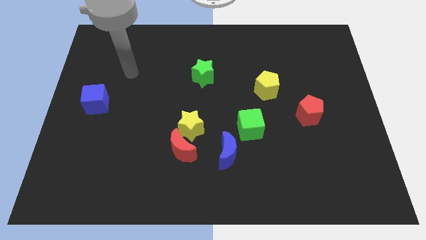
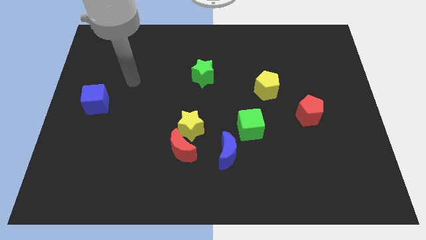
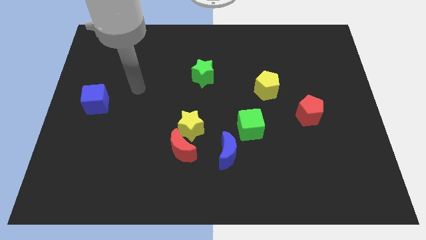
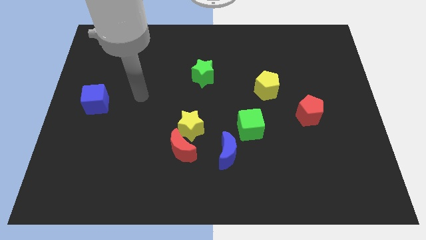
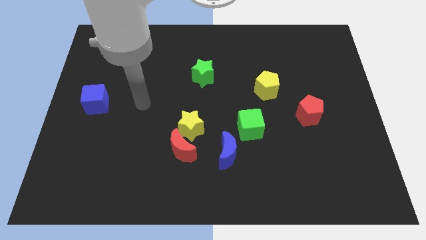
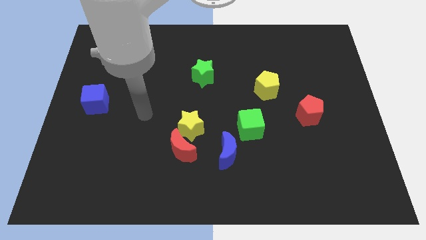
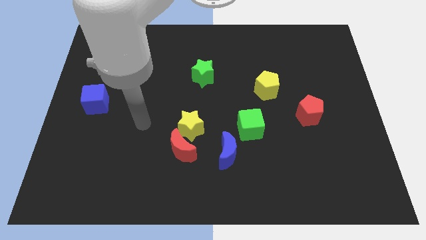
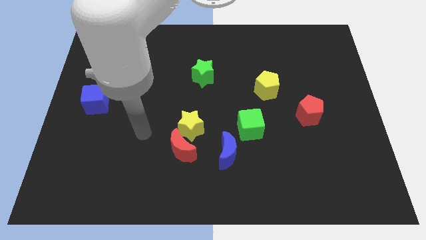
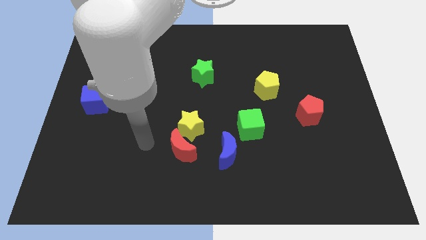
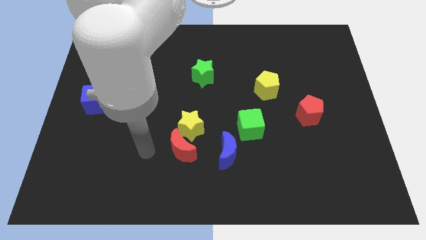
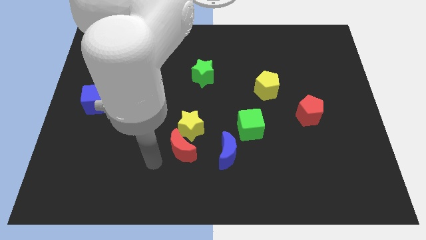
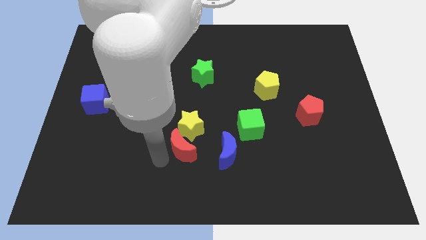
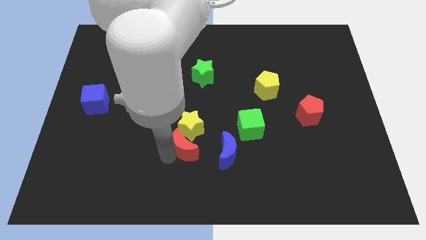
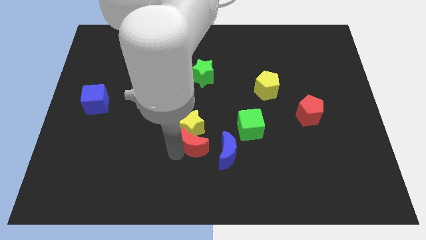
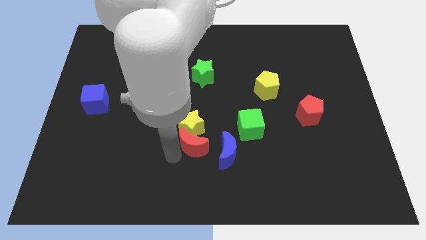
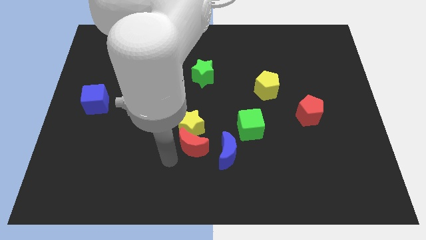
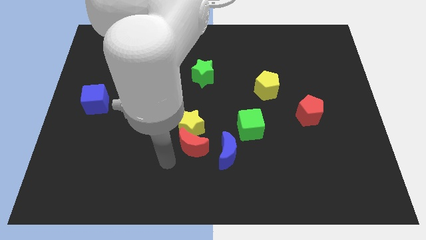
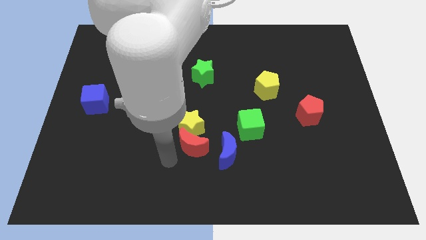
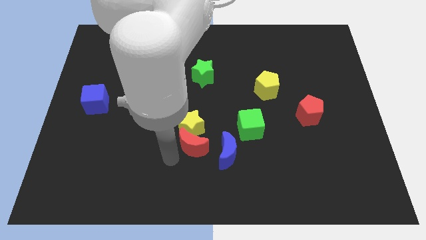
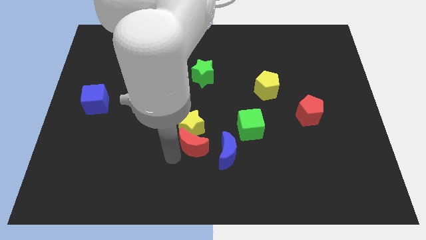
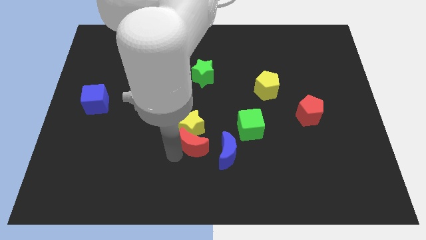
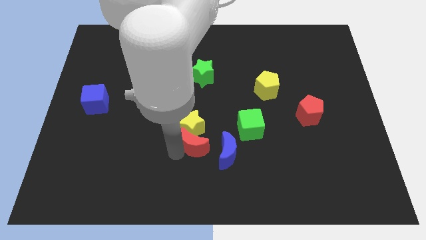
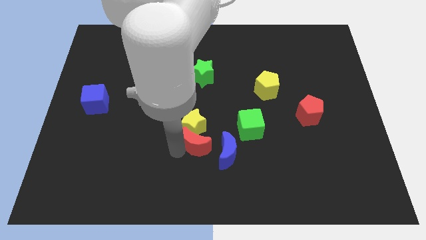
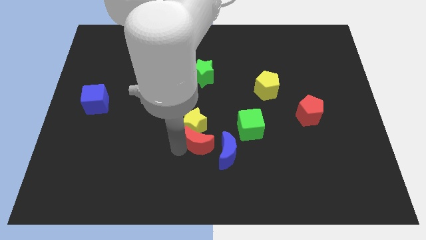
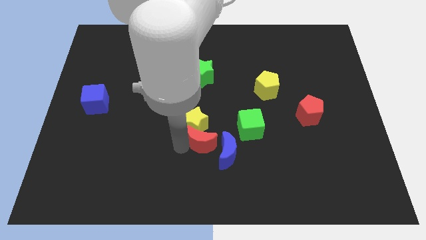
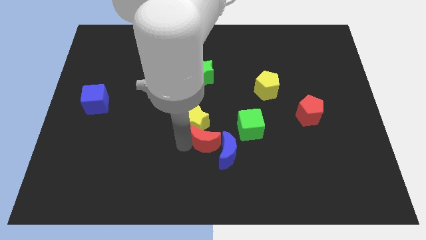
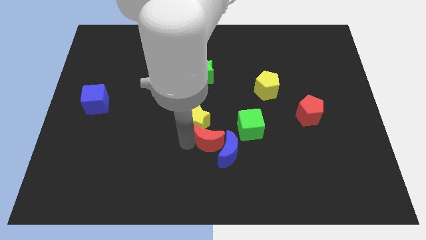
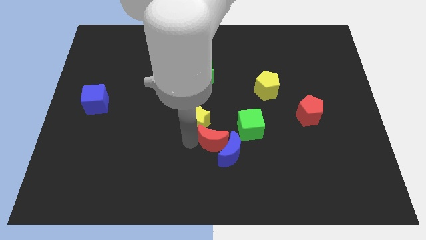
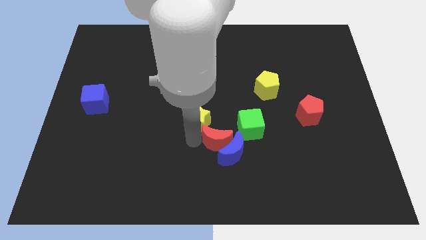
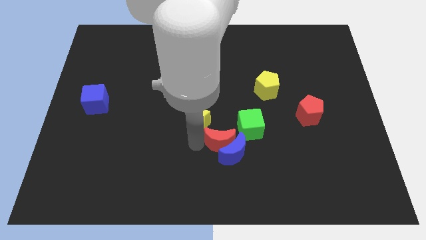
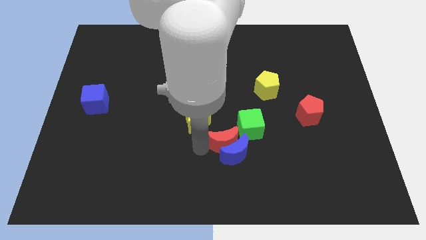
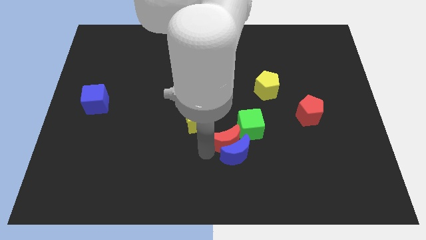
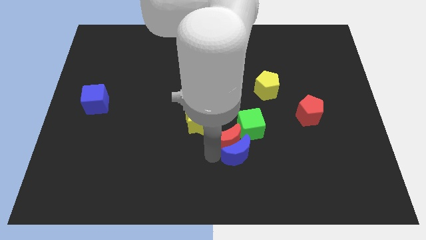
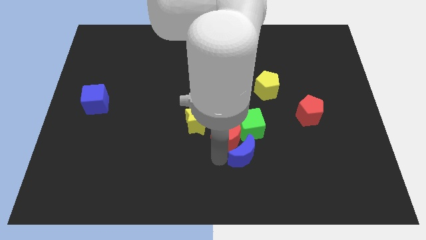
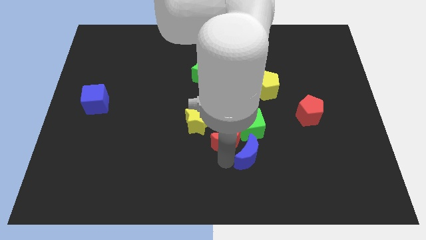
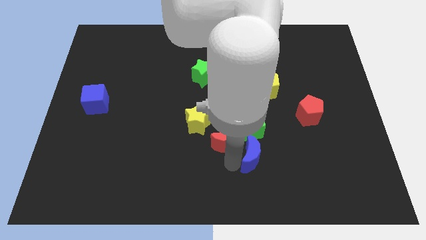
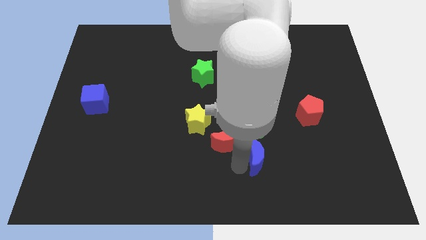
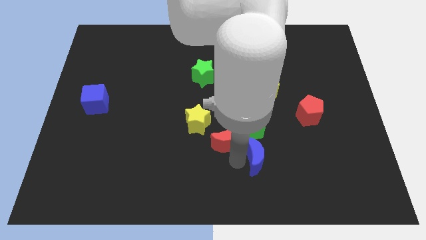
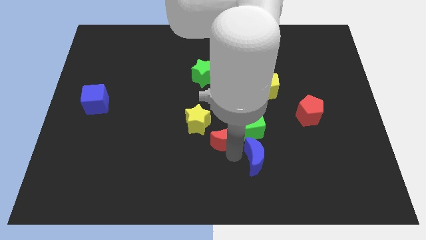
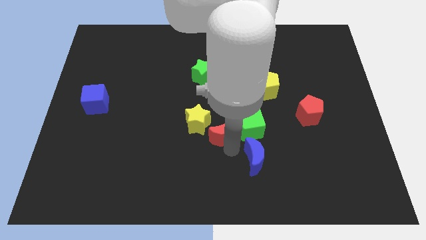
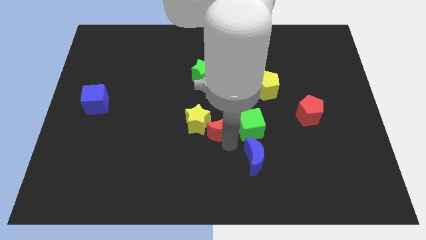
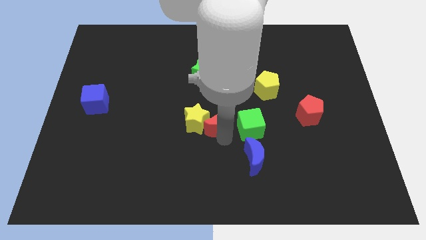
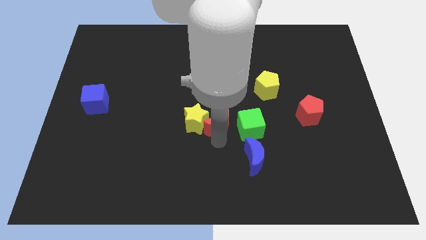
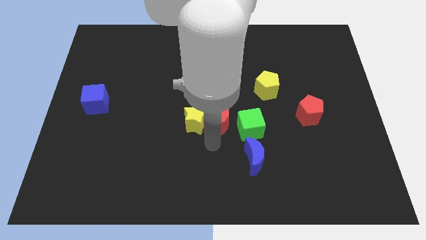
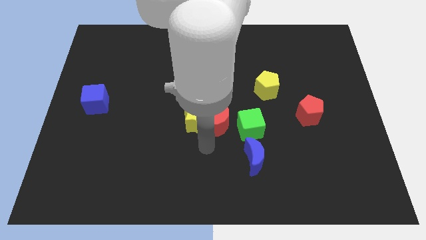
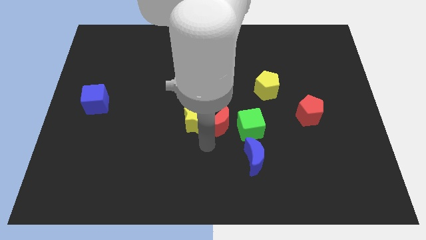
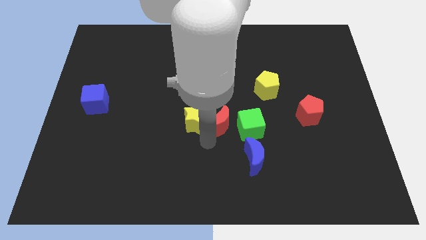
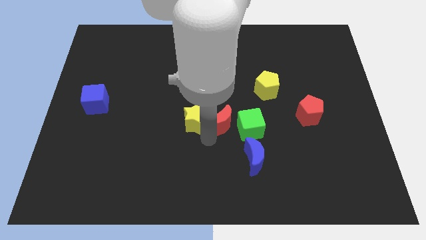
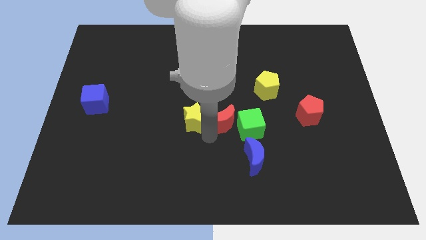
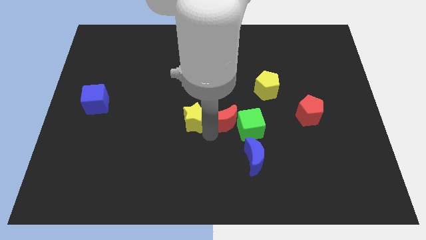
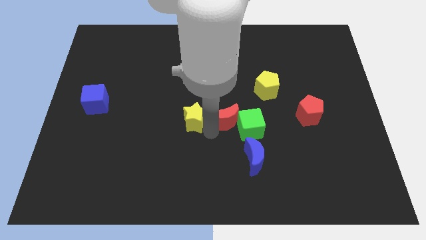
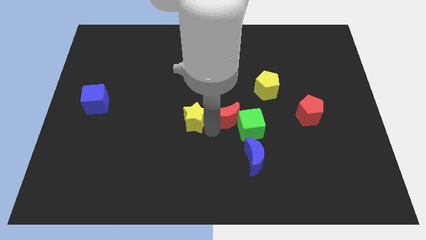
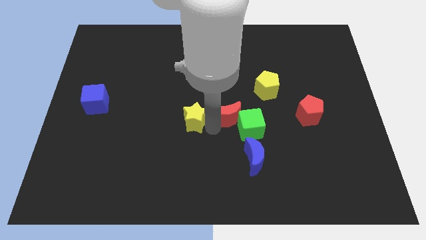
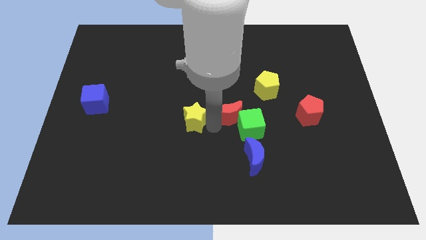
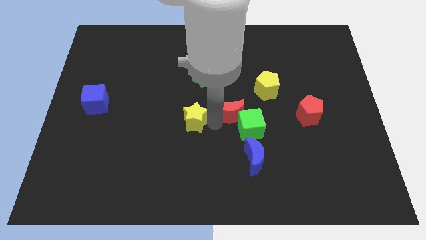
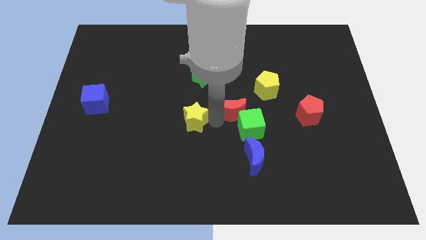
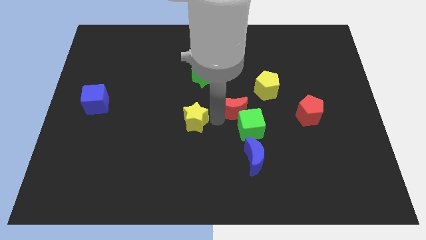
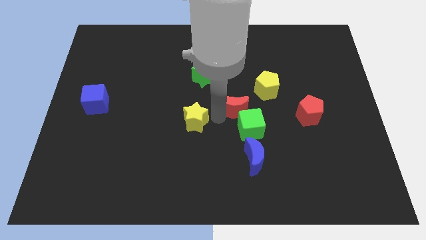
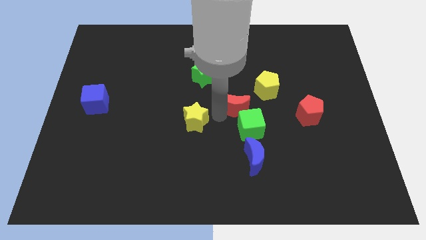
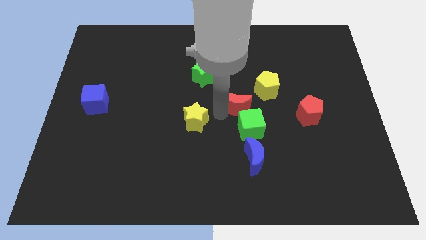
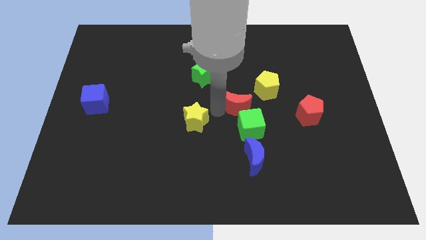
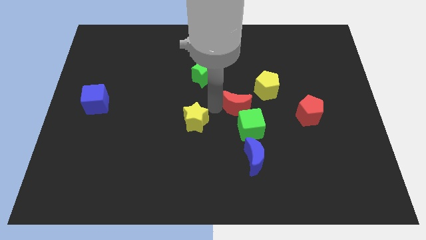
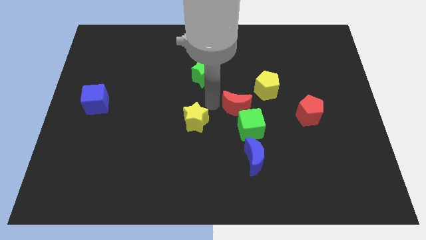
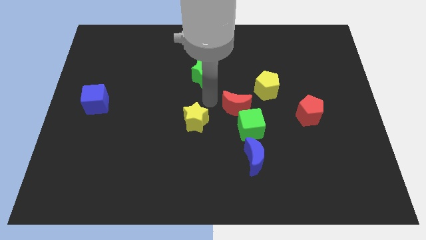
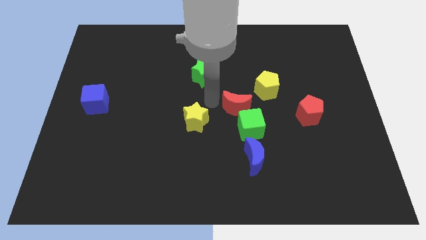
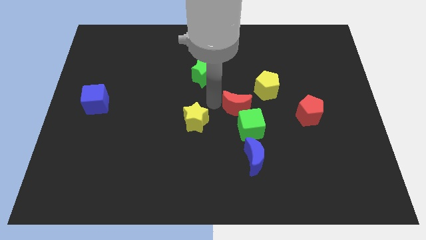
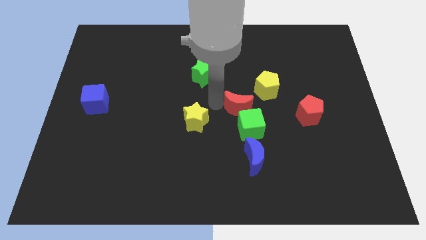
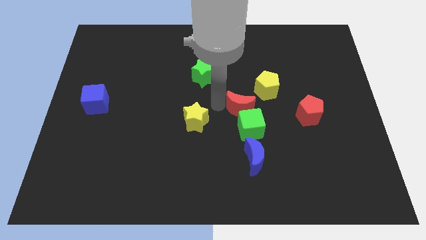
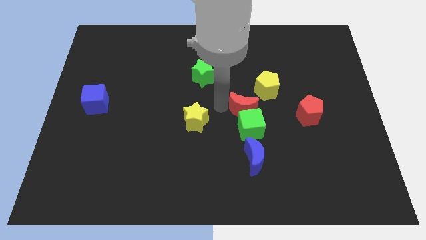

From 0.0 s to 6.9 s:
push the red moon to the top right side of the green cube
